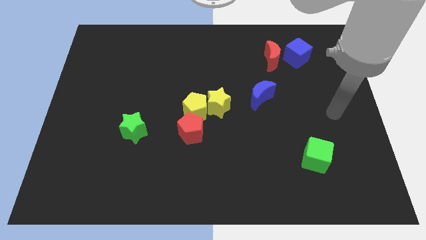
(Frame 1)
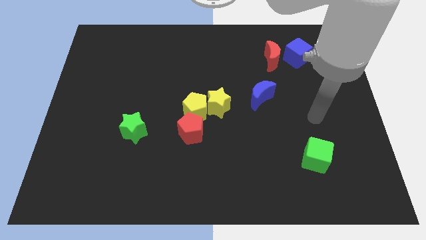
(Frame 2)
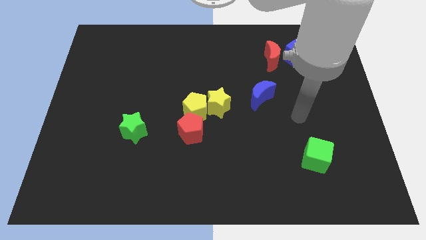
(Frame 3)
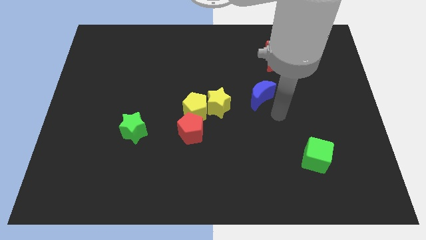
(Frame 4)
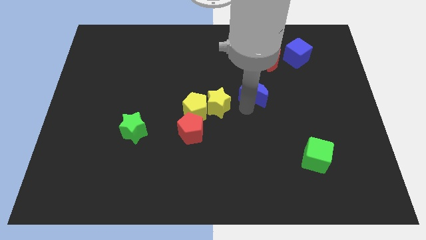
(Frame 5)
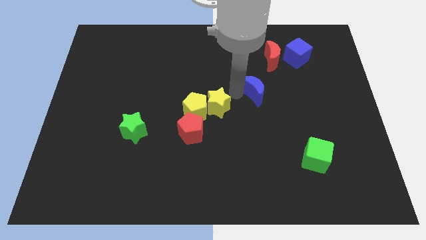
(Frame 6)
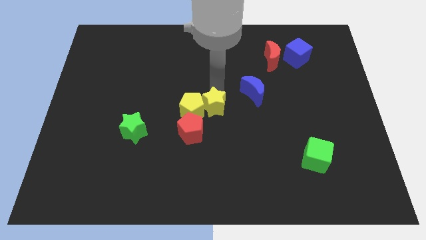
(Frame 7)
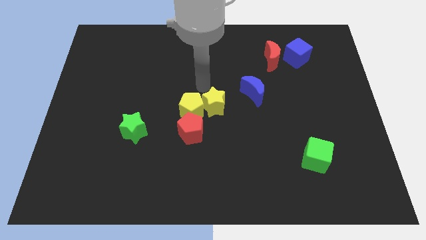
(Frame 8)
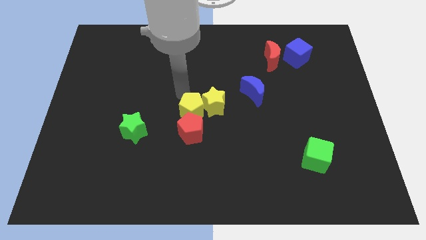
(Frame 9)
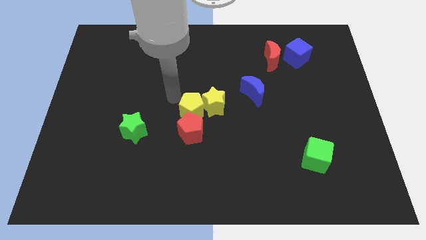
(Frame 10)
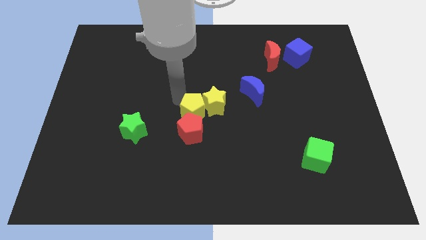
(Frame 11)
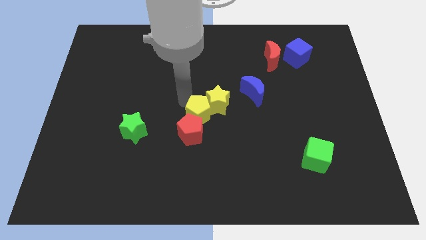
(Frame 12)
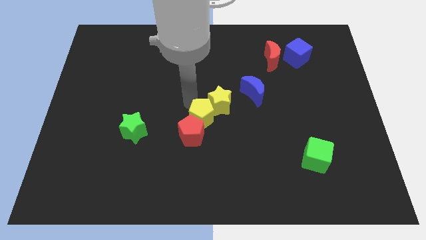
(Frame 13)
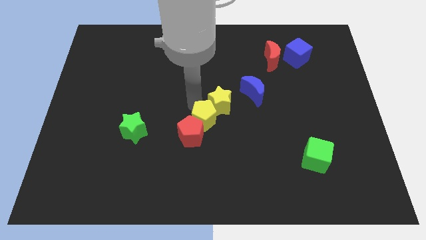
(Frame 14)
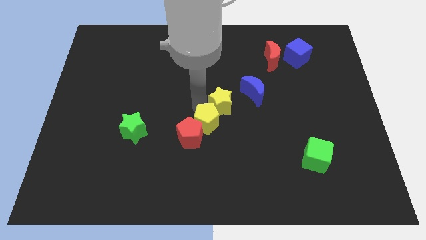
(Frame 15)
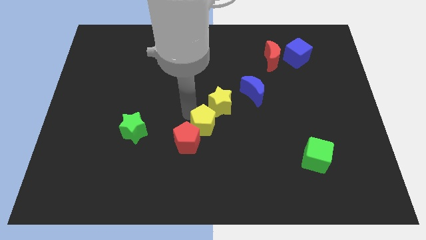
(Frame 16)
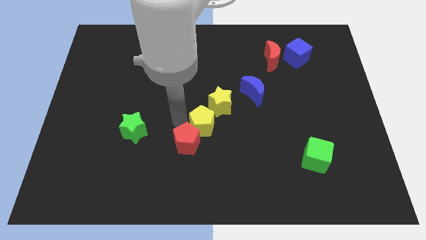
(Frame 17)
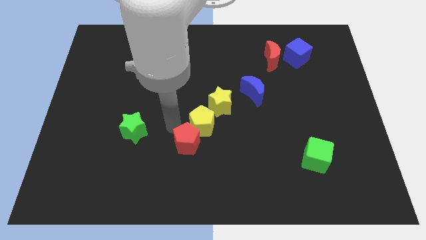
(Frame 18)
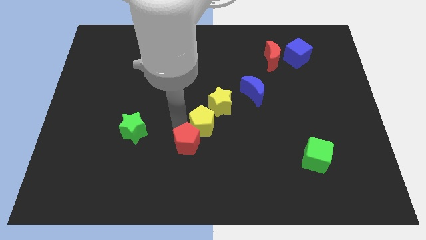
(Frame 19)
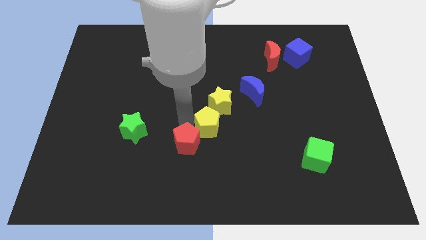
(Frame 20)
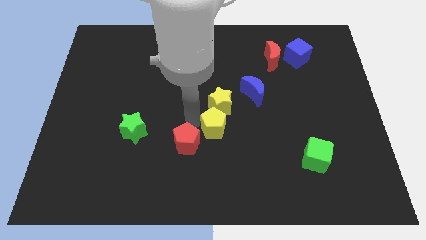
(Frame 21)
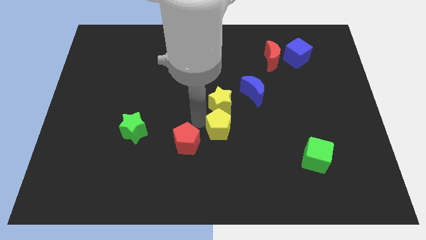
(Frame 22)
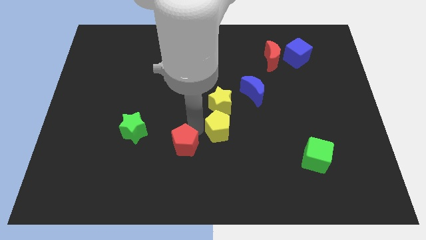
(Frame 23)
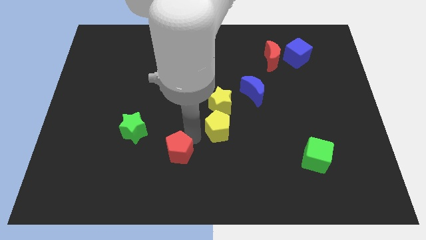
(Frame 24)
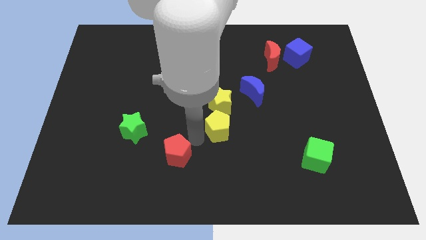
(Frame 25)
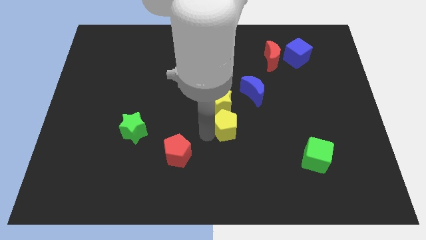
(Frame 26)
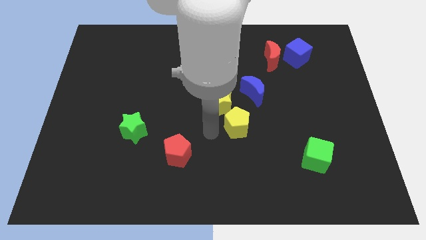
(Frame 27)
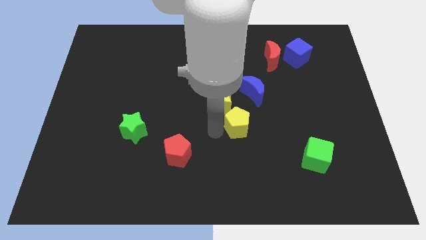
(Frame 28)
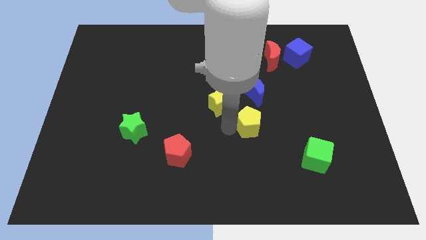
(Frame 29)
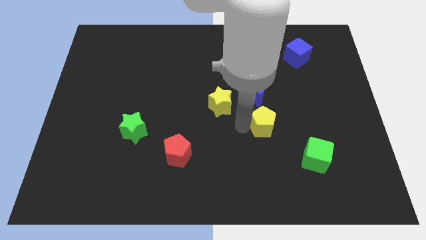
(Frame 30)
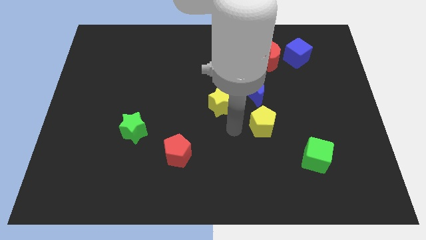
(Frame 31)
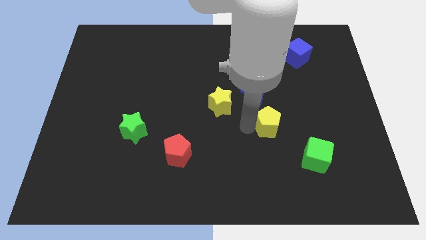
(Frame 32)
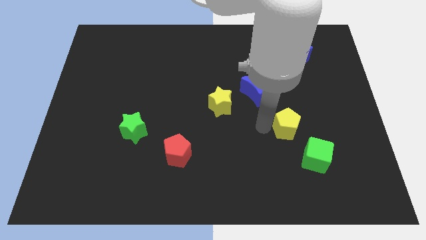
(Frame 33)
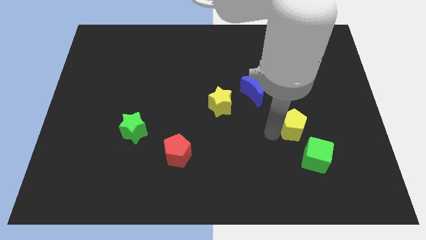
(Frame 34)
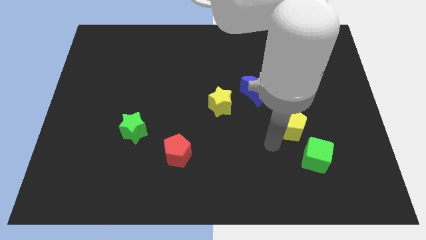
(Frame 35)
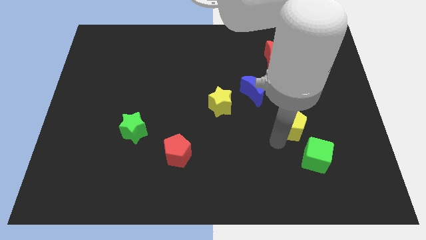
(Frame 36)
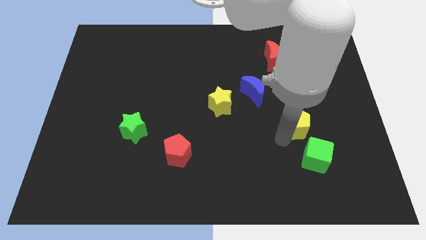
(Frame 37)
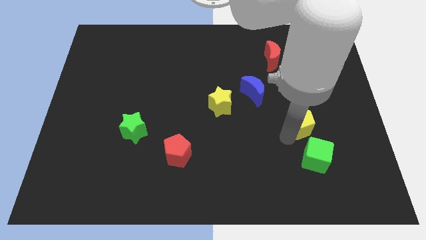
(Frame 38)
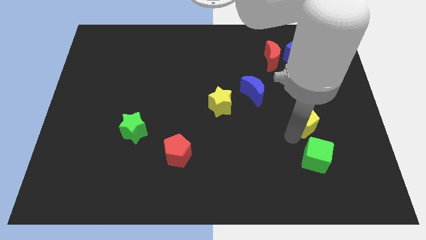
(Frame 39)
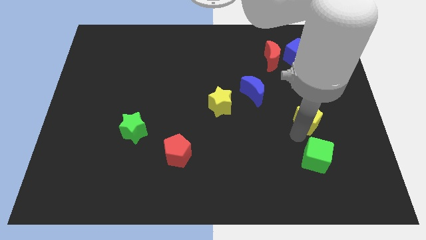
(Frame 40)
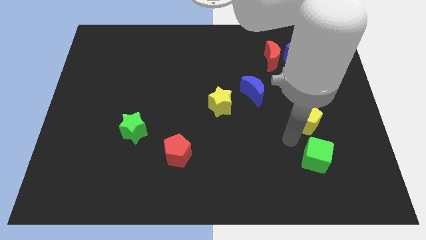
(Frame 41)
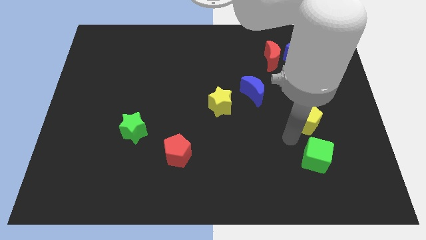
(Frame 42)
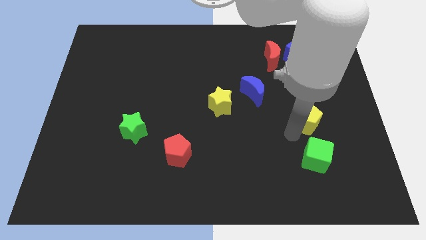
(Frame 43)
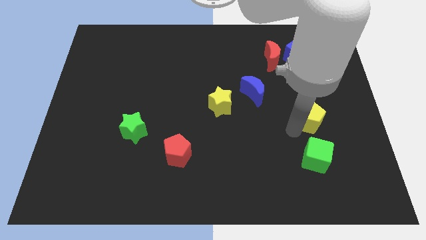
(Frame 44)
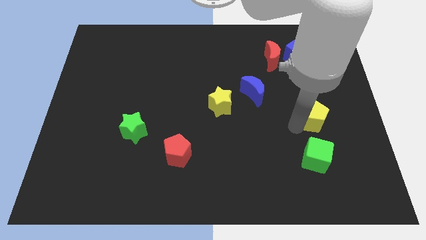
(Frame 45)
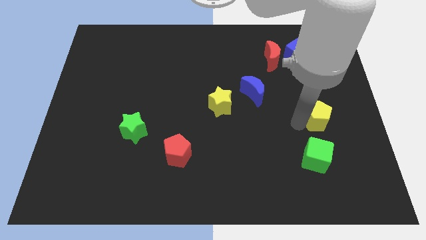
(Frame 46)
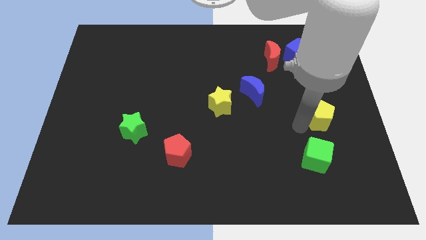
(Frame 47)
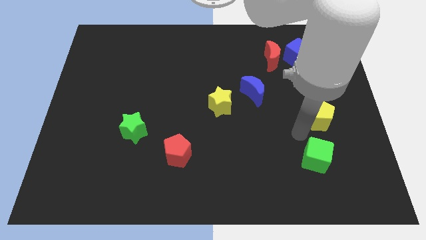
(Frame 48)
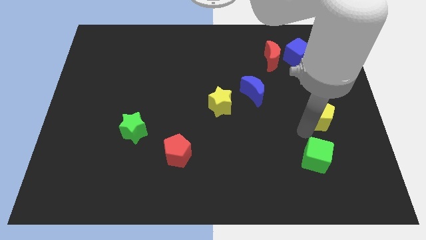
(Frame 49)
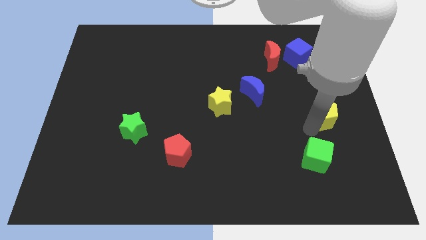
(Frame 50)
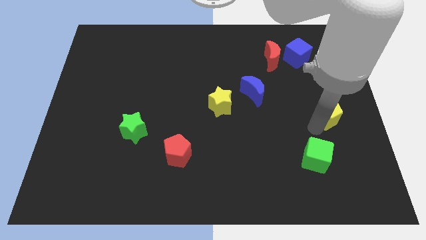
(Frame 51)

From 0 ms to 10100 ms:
slide the yellow pentagon to the center right

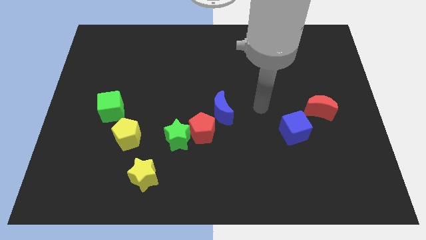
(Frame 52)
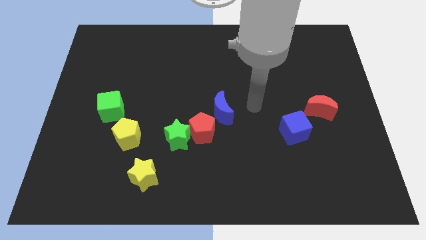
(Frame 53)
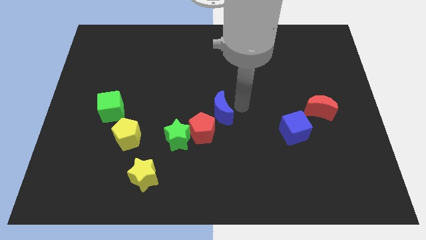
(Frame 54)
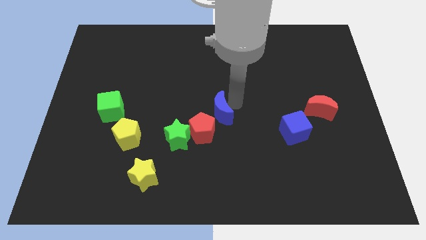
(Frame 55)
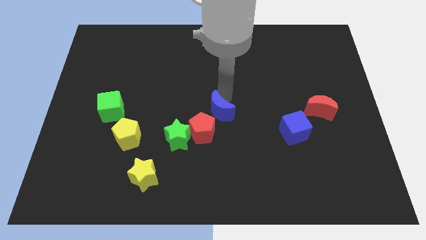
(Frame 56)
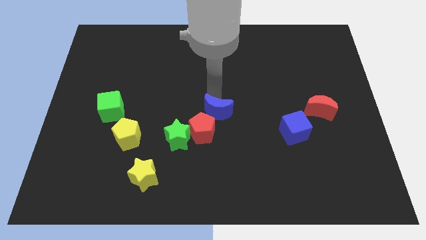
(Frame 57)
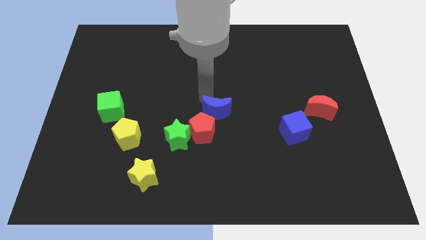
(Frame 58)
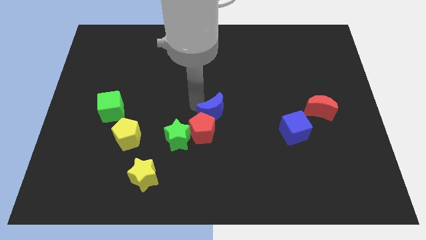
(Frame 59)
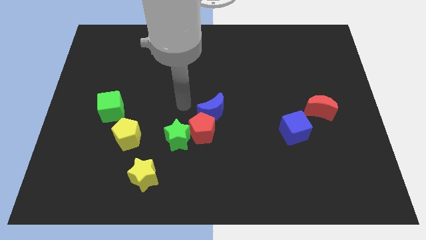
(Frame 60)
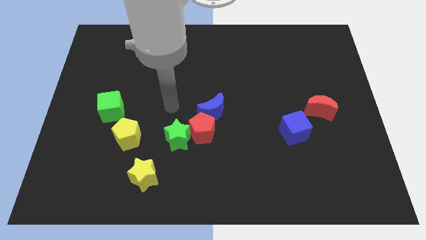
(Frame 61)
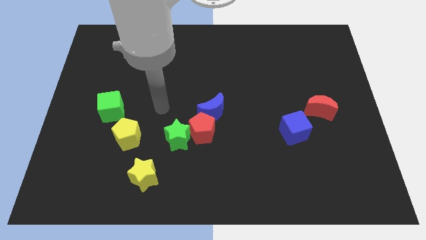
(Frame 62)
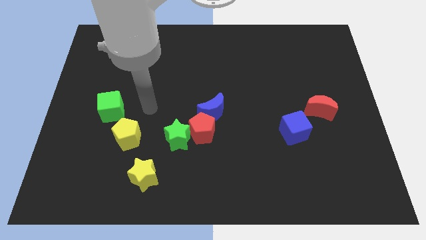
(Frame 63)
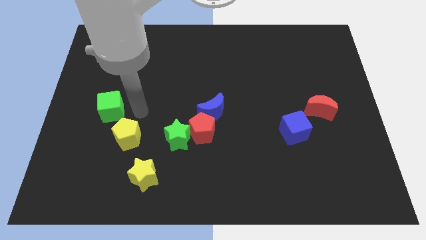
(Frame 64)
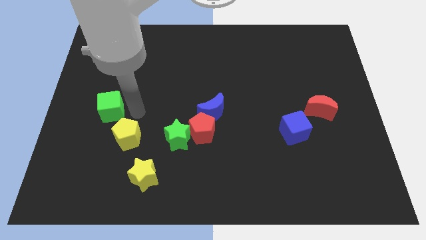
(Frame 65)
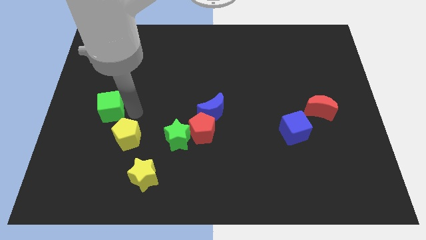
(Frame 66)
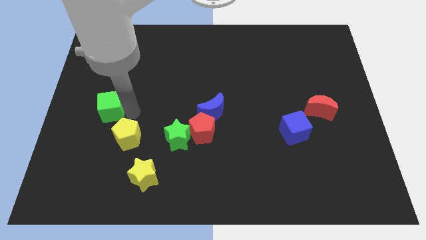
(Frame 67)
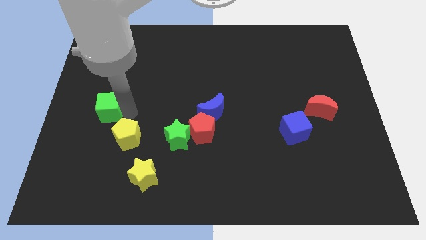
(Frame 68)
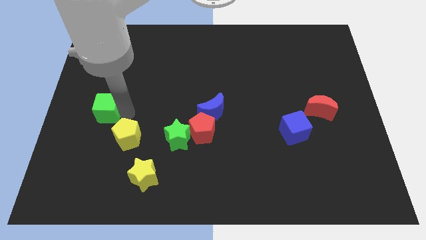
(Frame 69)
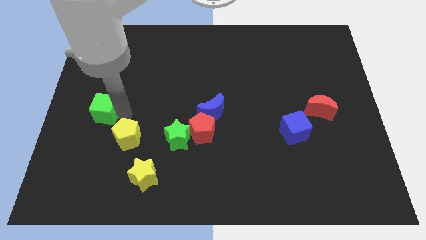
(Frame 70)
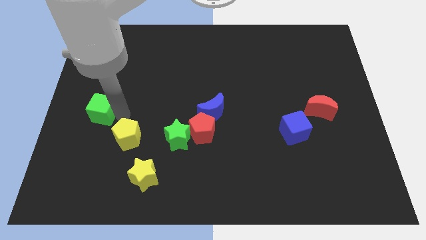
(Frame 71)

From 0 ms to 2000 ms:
slide the green cube to the center left

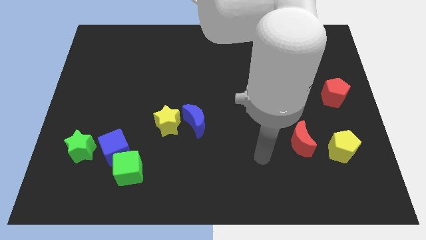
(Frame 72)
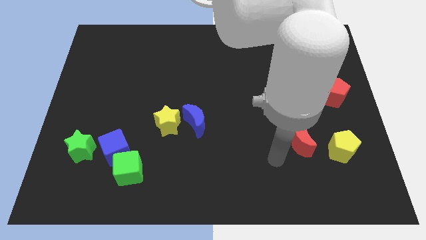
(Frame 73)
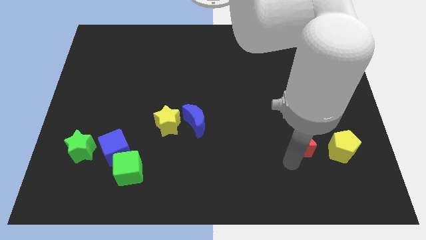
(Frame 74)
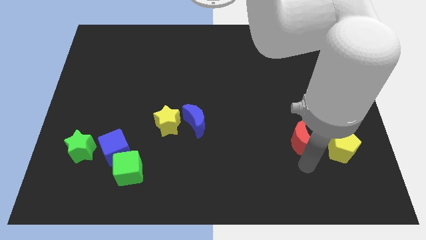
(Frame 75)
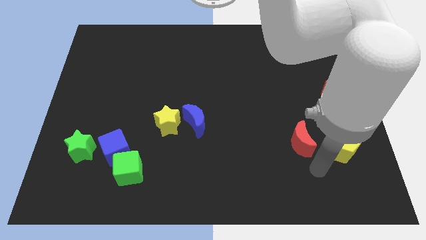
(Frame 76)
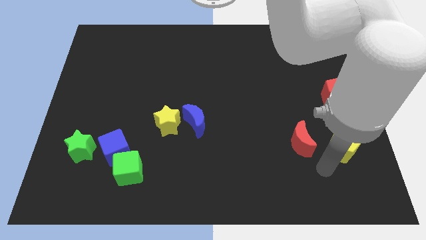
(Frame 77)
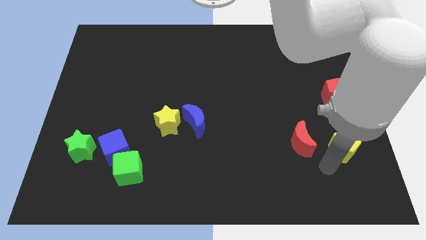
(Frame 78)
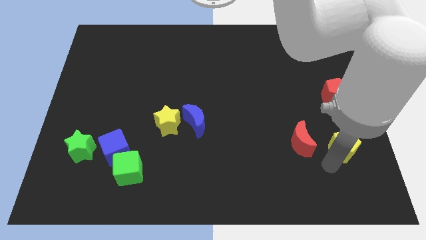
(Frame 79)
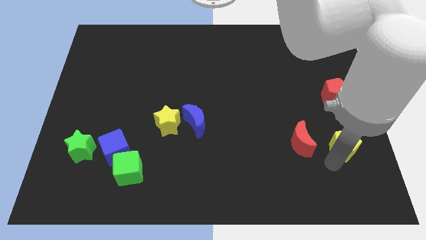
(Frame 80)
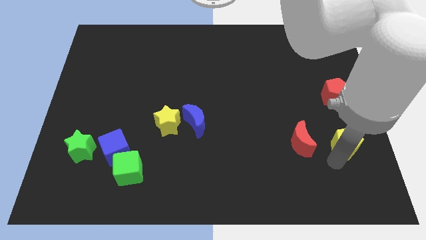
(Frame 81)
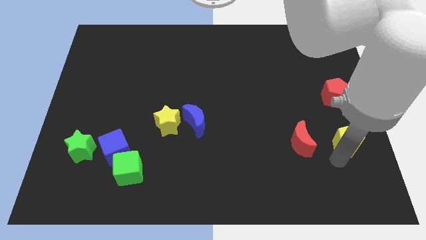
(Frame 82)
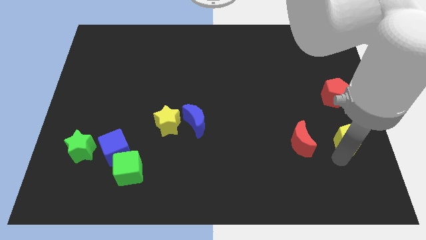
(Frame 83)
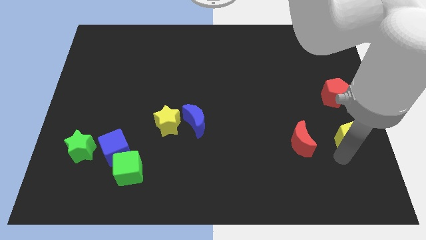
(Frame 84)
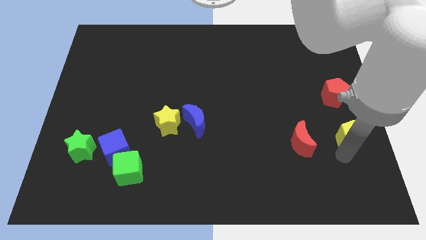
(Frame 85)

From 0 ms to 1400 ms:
put the yellow pentagon to the right side of the board
